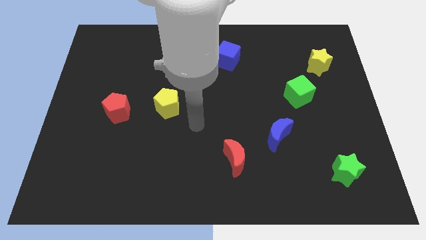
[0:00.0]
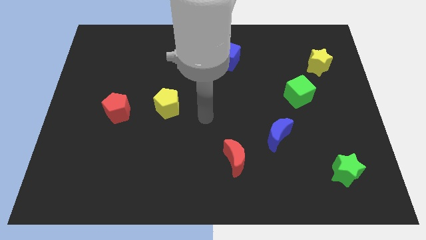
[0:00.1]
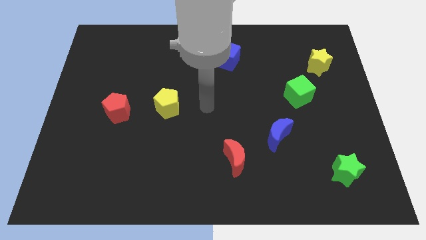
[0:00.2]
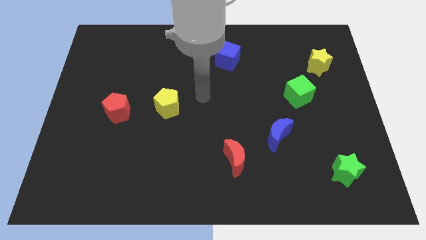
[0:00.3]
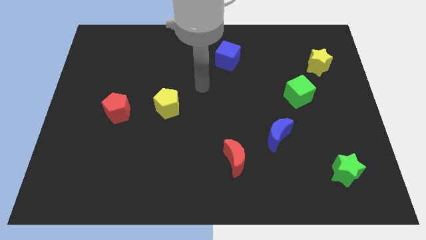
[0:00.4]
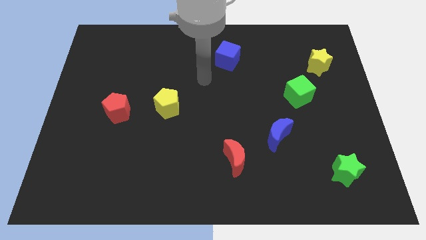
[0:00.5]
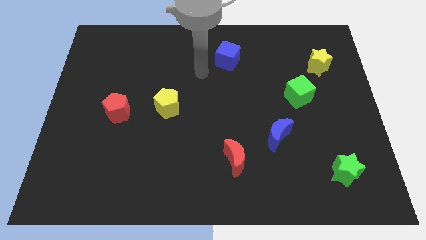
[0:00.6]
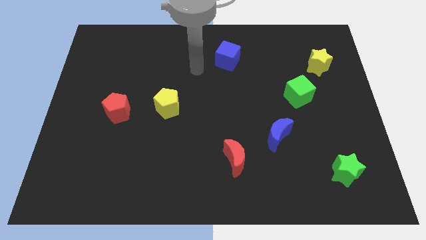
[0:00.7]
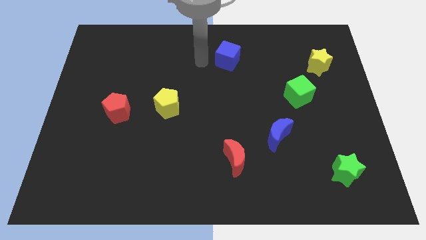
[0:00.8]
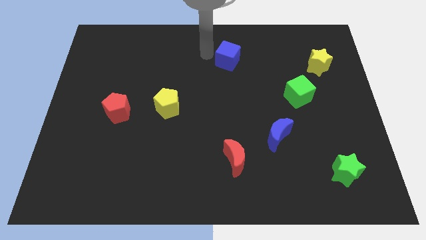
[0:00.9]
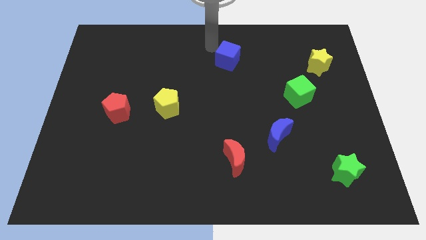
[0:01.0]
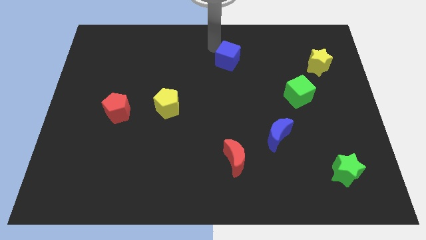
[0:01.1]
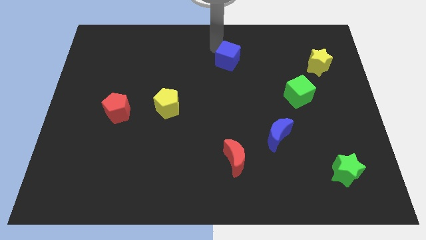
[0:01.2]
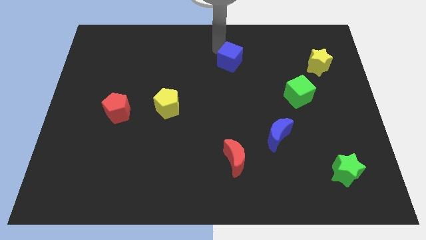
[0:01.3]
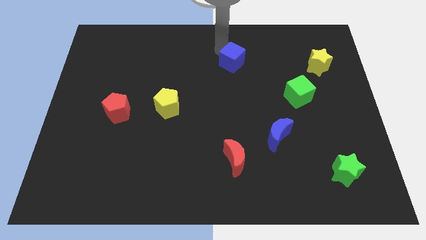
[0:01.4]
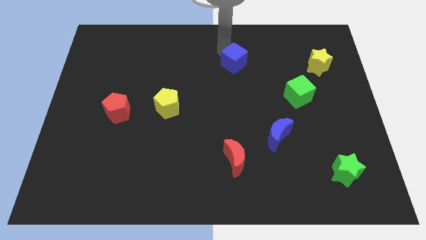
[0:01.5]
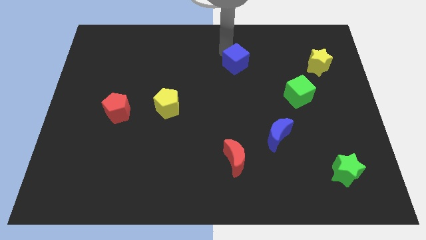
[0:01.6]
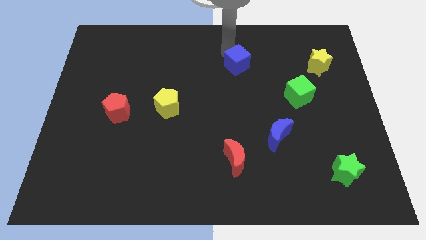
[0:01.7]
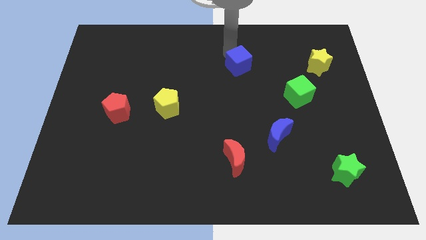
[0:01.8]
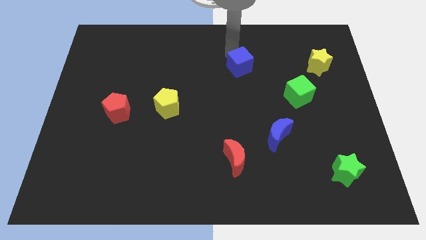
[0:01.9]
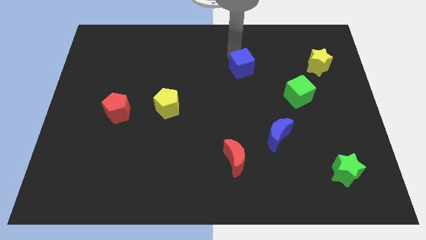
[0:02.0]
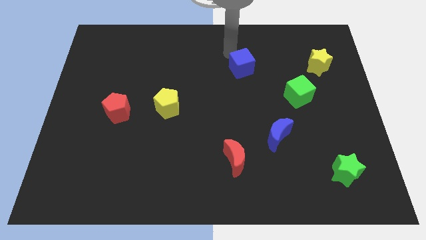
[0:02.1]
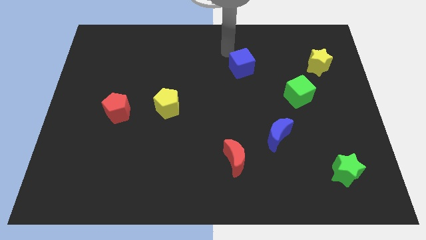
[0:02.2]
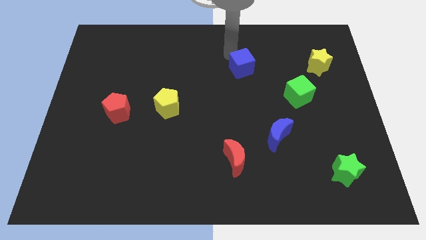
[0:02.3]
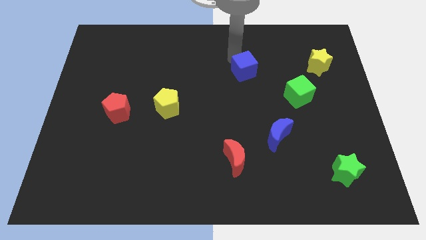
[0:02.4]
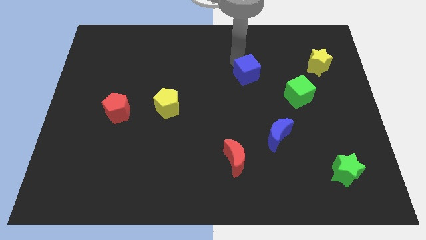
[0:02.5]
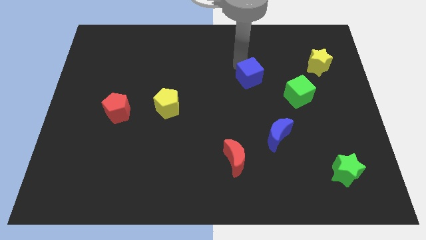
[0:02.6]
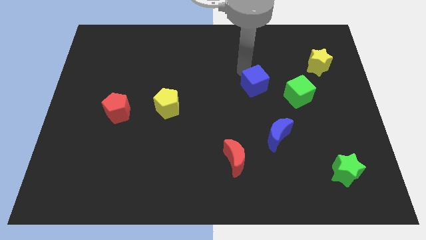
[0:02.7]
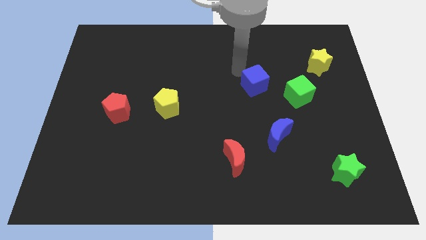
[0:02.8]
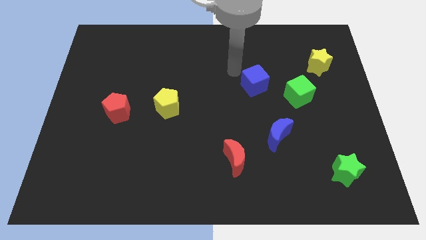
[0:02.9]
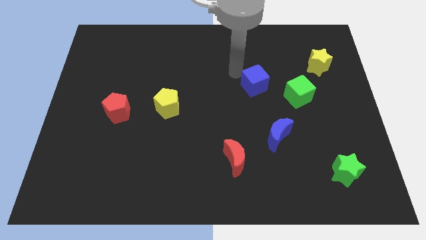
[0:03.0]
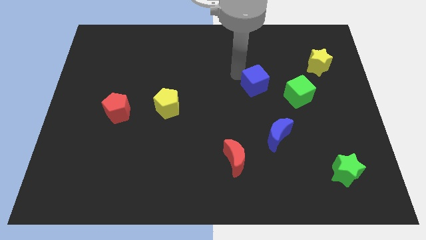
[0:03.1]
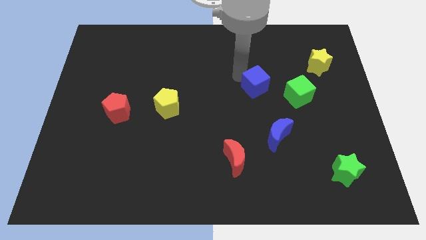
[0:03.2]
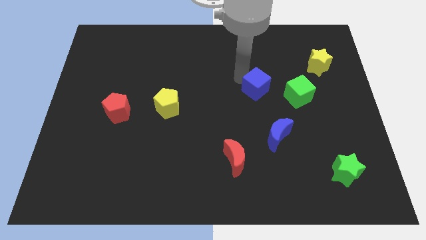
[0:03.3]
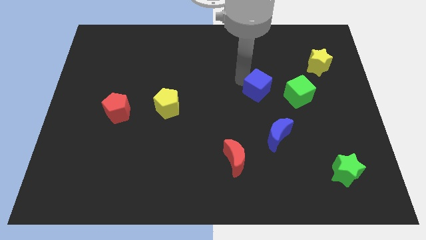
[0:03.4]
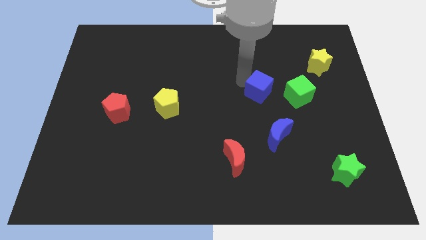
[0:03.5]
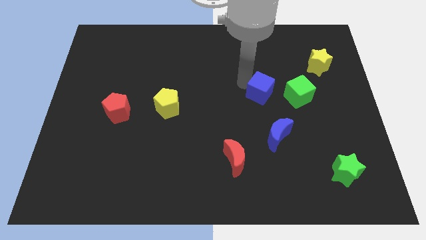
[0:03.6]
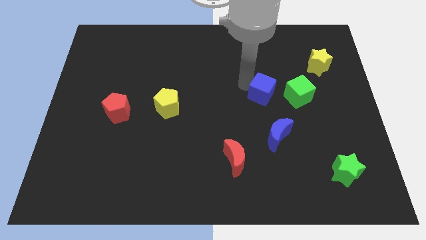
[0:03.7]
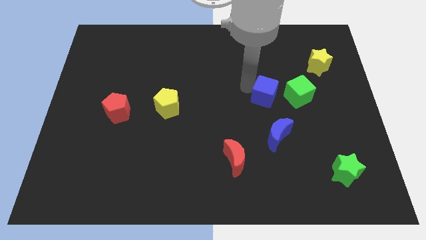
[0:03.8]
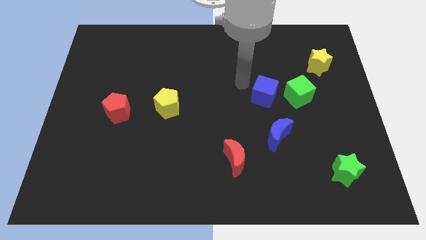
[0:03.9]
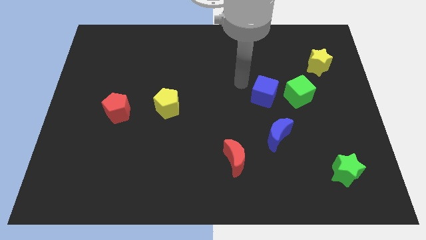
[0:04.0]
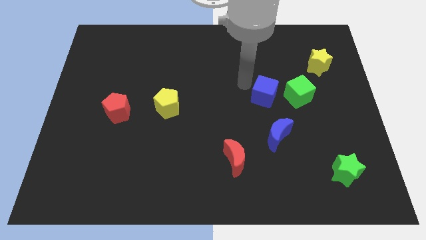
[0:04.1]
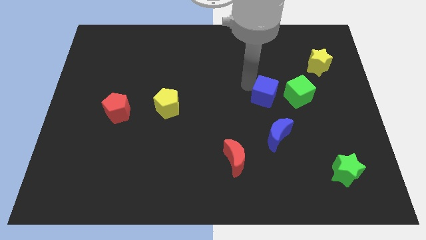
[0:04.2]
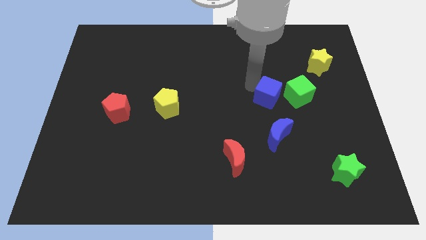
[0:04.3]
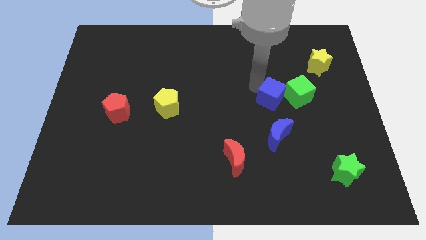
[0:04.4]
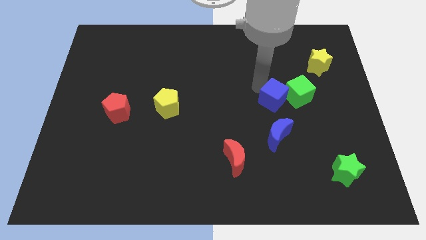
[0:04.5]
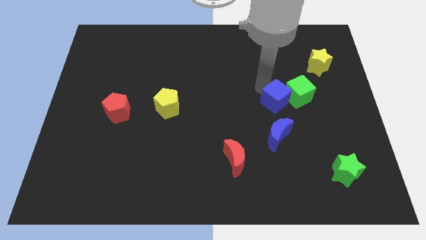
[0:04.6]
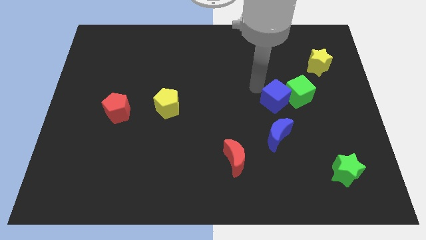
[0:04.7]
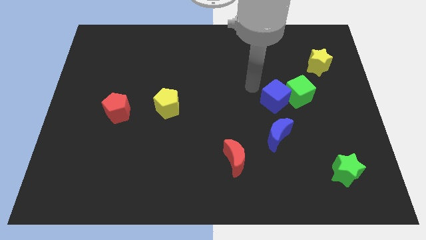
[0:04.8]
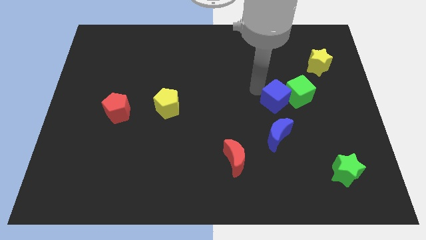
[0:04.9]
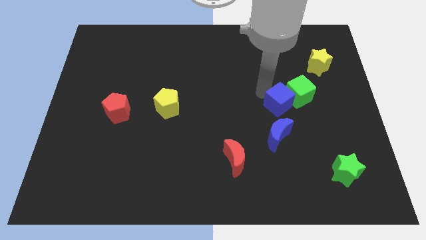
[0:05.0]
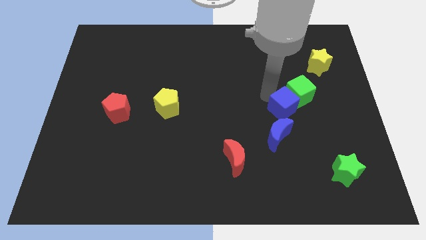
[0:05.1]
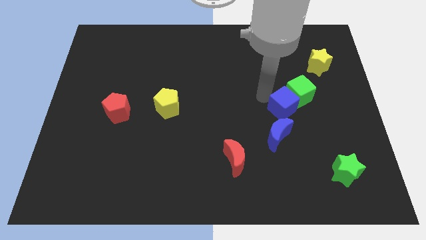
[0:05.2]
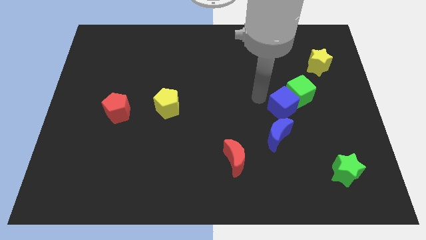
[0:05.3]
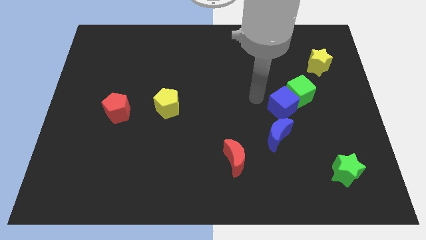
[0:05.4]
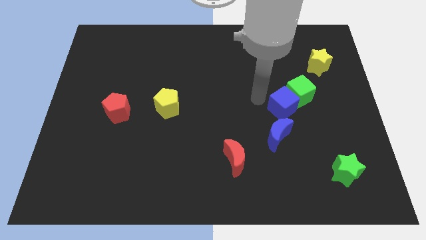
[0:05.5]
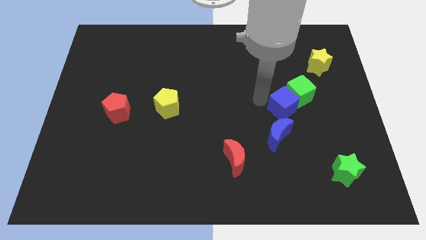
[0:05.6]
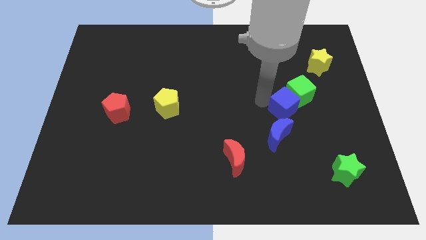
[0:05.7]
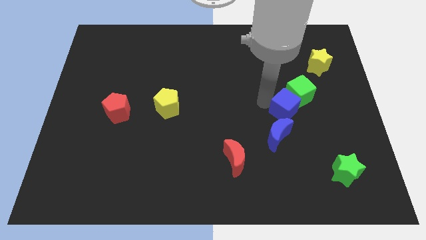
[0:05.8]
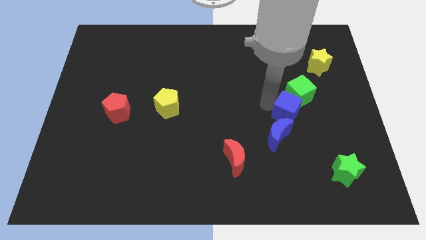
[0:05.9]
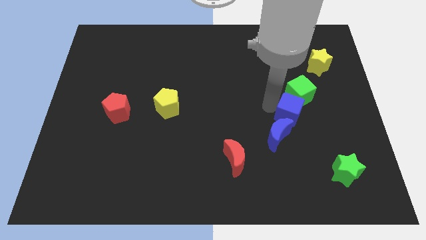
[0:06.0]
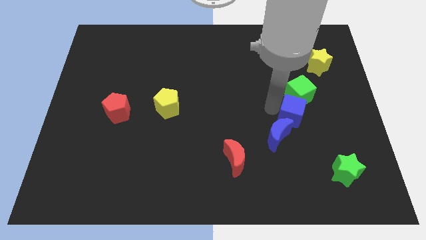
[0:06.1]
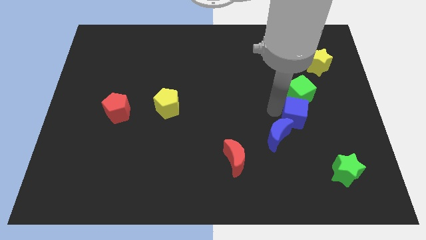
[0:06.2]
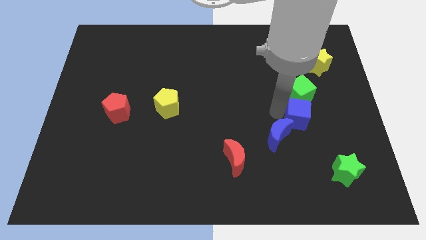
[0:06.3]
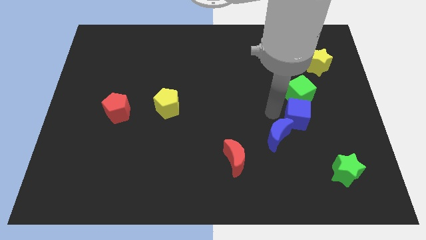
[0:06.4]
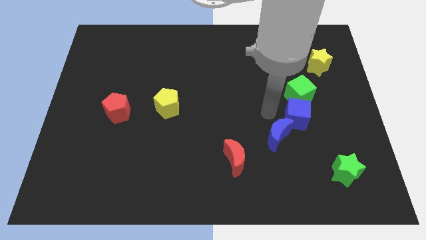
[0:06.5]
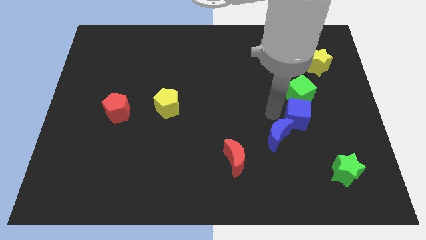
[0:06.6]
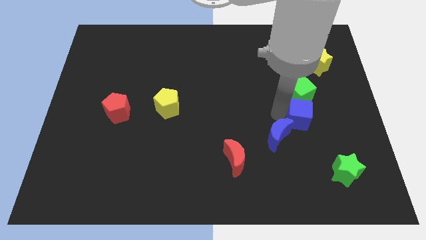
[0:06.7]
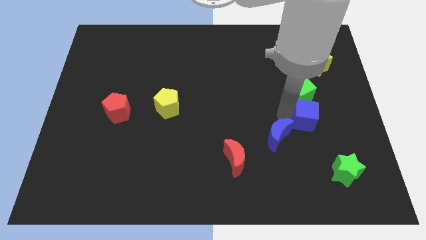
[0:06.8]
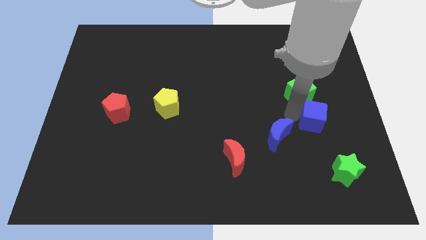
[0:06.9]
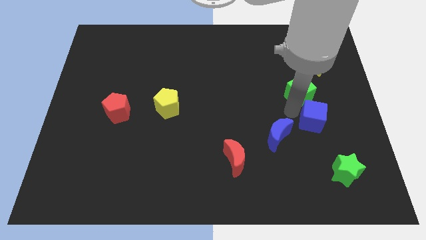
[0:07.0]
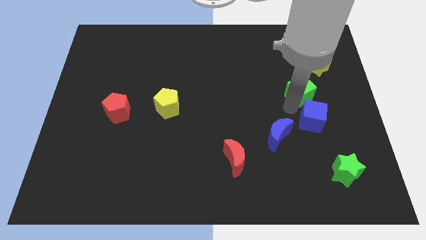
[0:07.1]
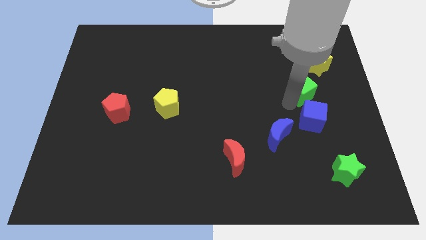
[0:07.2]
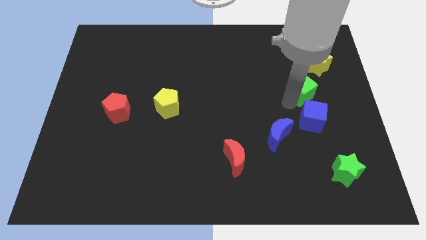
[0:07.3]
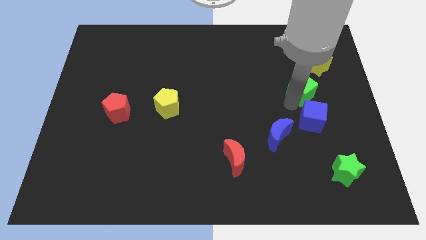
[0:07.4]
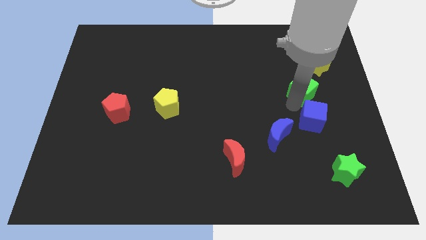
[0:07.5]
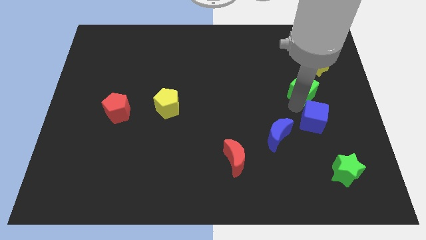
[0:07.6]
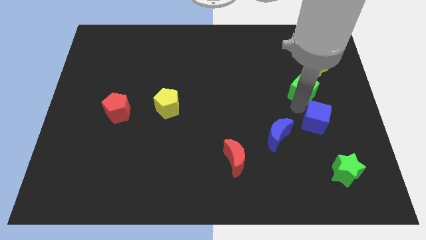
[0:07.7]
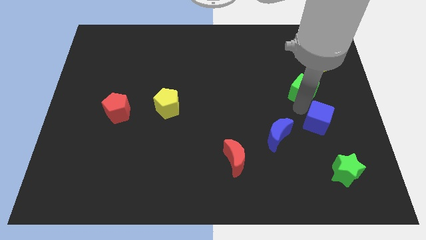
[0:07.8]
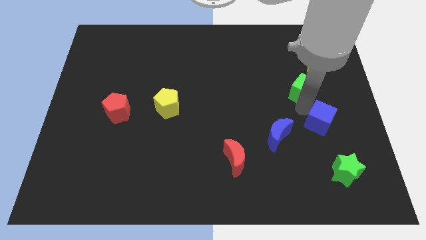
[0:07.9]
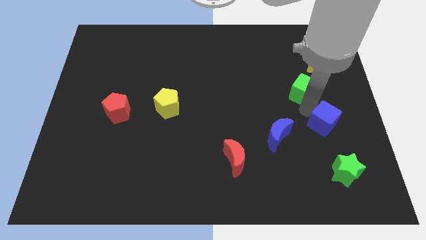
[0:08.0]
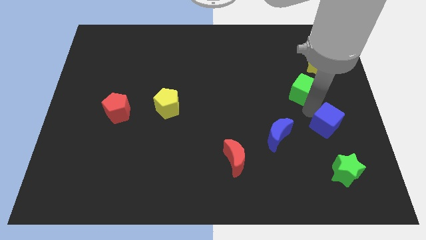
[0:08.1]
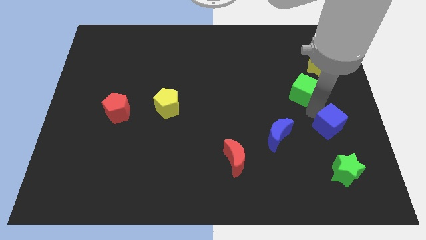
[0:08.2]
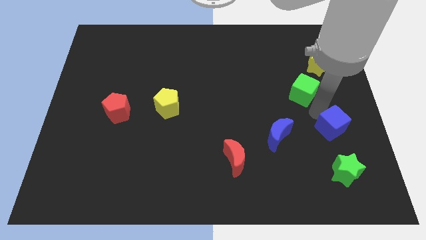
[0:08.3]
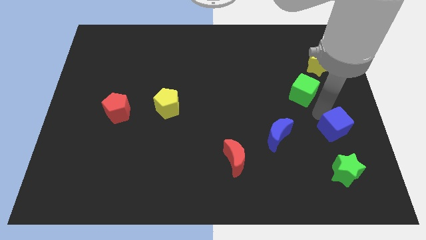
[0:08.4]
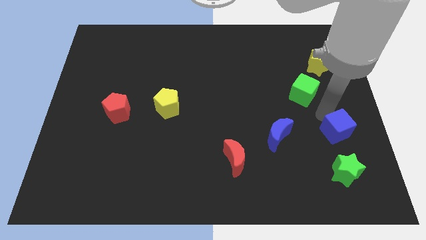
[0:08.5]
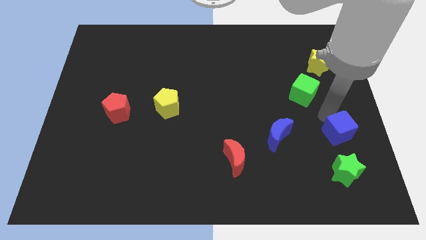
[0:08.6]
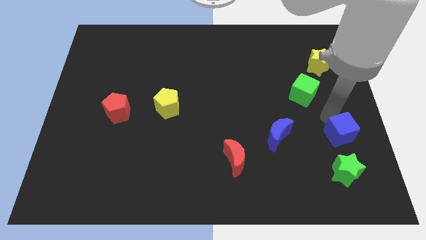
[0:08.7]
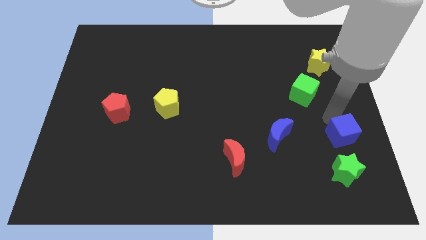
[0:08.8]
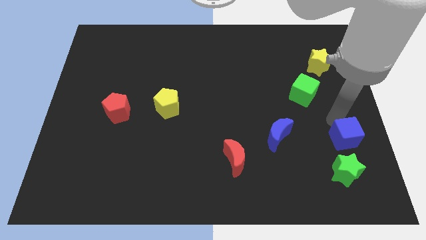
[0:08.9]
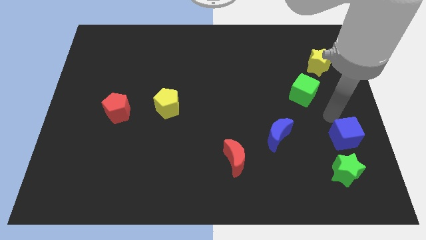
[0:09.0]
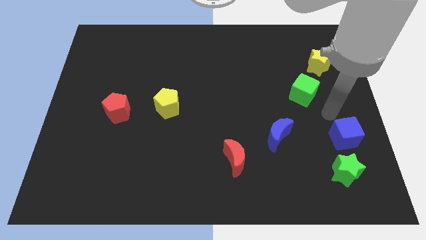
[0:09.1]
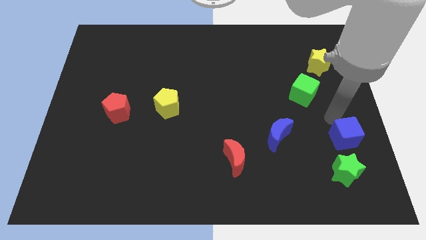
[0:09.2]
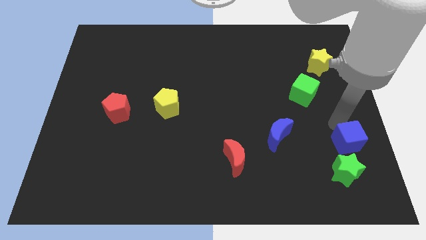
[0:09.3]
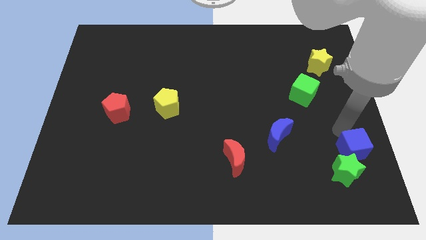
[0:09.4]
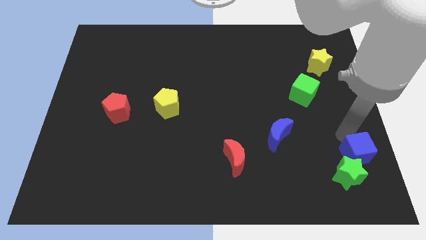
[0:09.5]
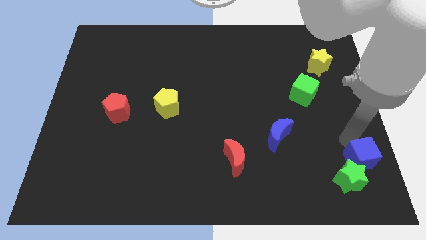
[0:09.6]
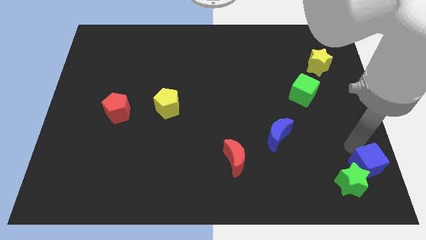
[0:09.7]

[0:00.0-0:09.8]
slide the blue cube to the bottom right
